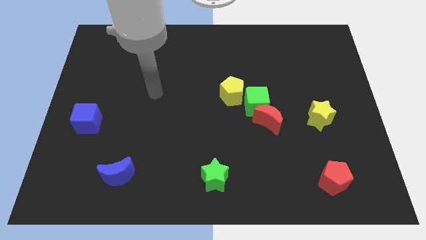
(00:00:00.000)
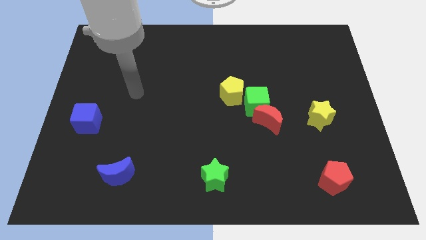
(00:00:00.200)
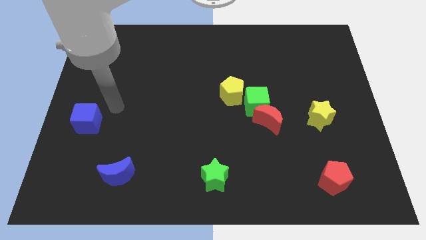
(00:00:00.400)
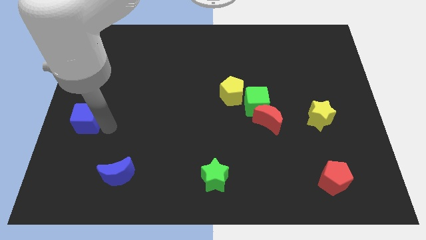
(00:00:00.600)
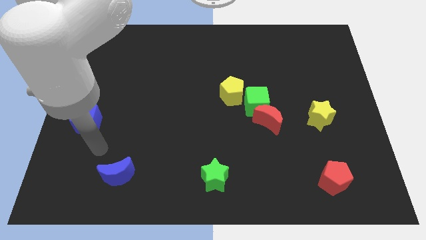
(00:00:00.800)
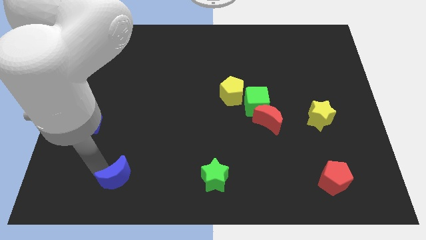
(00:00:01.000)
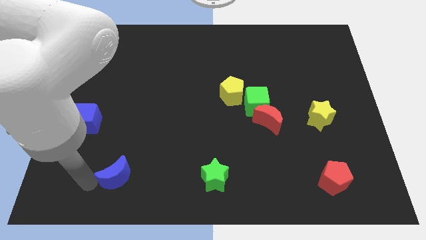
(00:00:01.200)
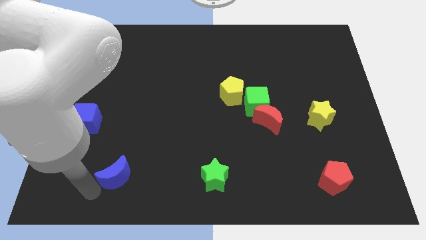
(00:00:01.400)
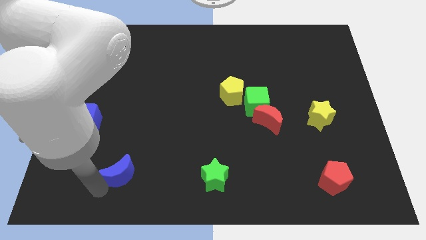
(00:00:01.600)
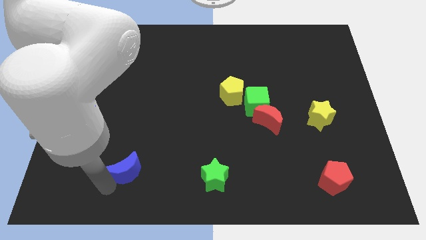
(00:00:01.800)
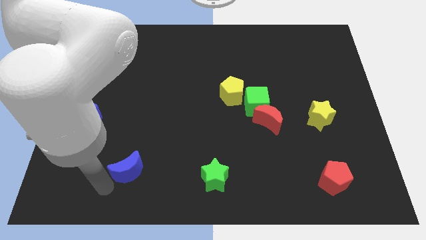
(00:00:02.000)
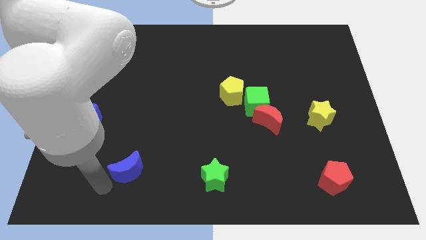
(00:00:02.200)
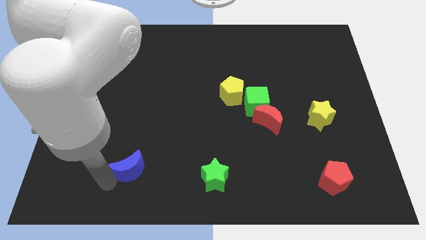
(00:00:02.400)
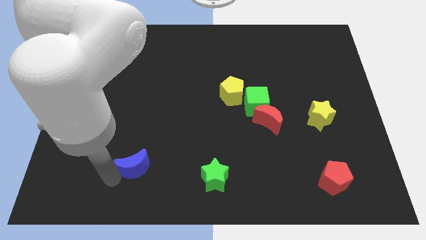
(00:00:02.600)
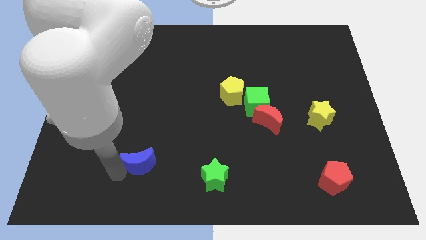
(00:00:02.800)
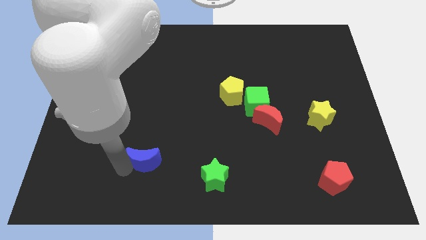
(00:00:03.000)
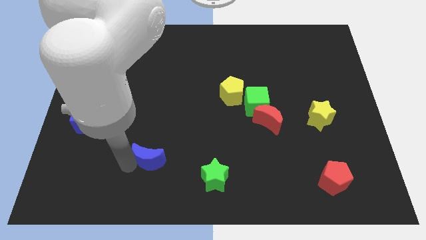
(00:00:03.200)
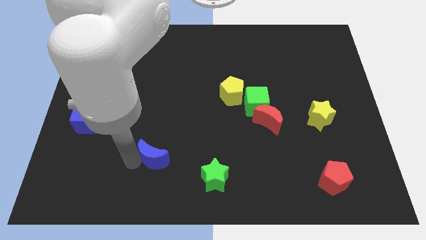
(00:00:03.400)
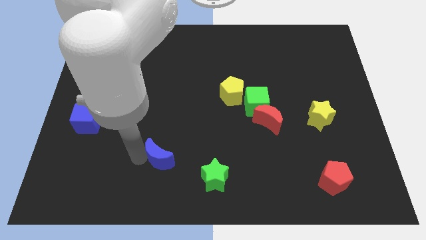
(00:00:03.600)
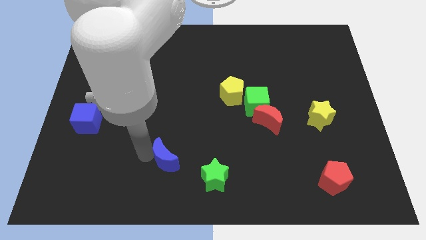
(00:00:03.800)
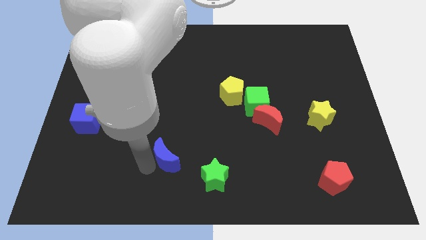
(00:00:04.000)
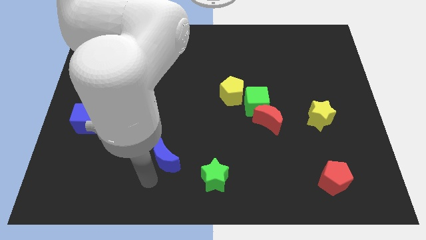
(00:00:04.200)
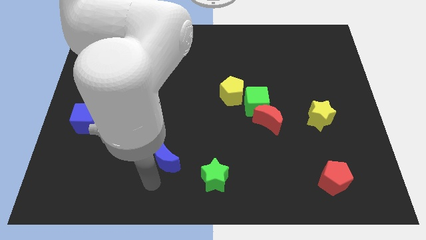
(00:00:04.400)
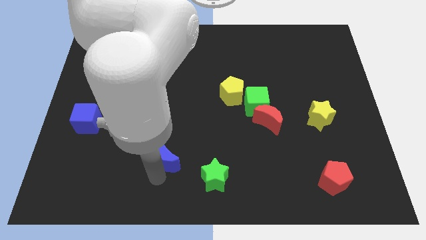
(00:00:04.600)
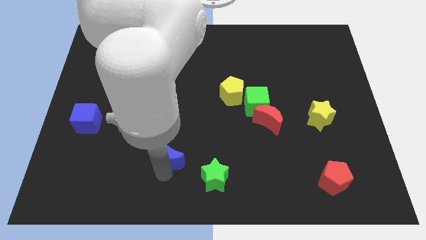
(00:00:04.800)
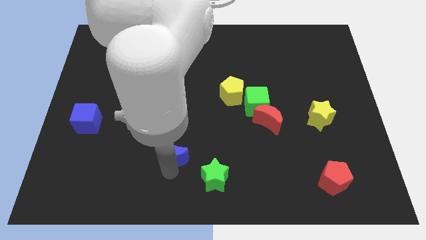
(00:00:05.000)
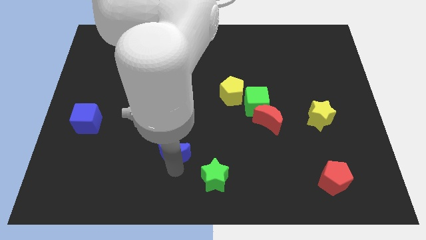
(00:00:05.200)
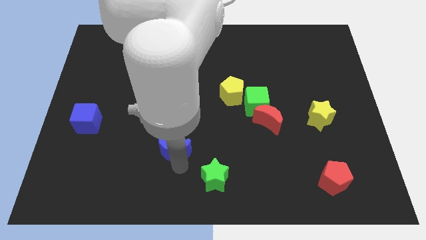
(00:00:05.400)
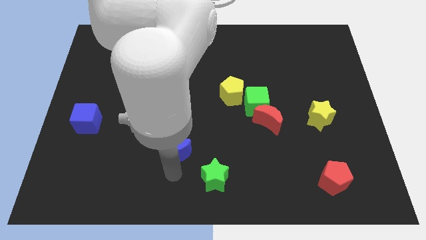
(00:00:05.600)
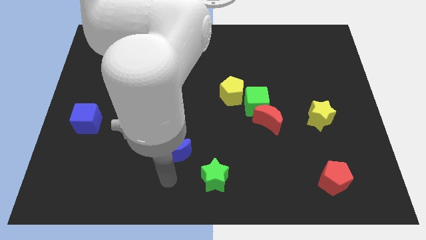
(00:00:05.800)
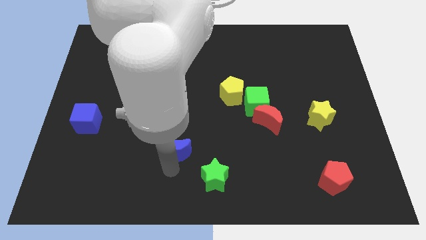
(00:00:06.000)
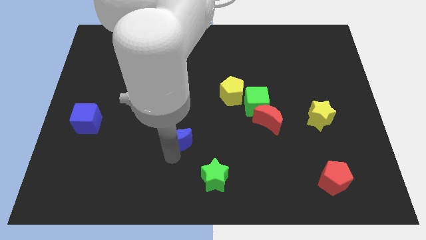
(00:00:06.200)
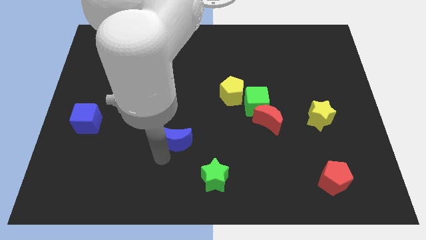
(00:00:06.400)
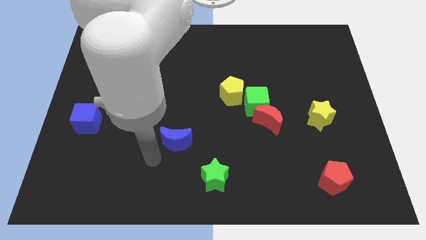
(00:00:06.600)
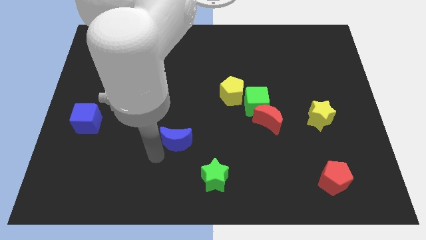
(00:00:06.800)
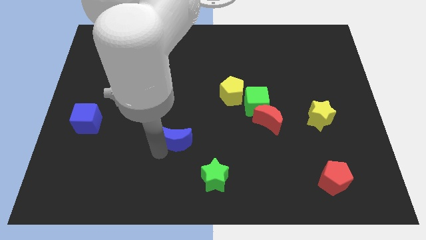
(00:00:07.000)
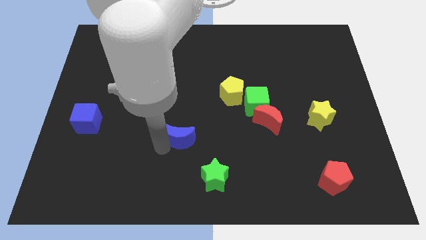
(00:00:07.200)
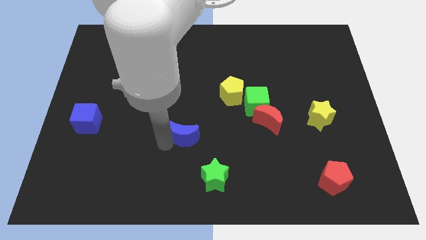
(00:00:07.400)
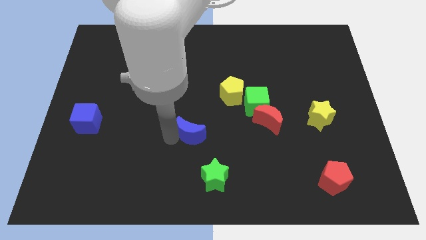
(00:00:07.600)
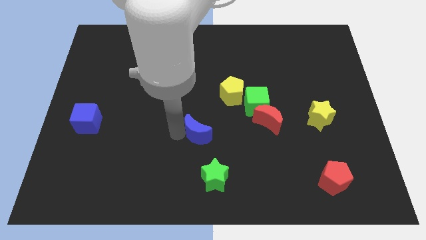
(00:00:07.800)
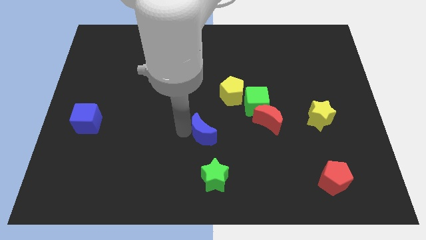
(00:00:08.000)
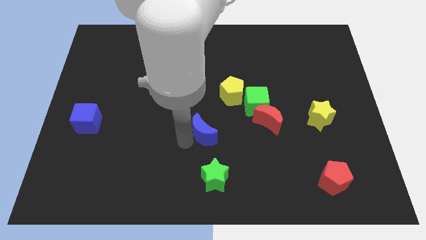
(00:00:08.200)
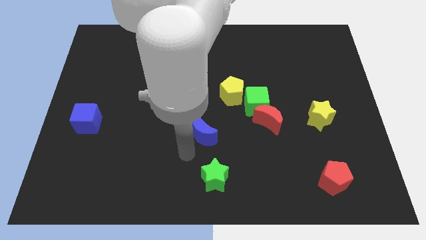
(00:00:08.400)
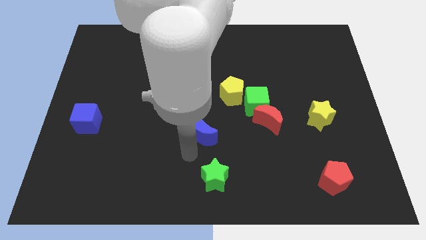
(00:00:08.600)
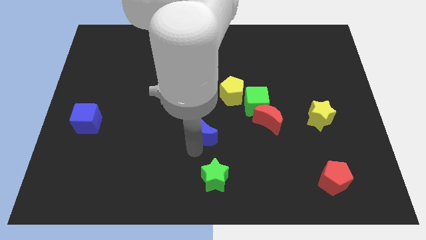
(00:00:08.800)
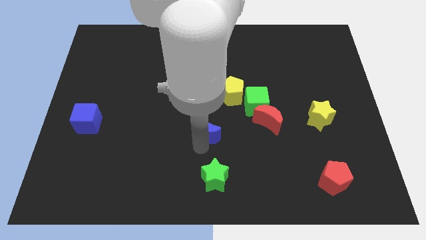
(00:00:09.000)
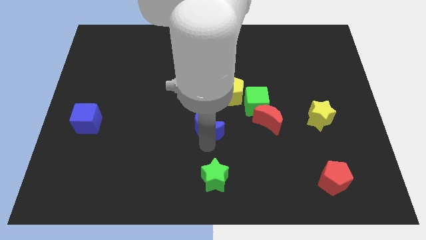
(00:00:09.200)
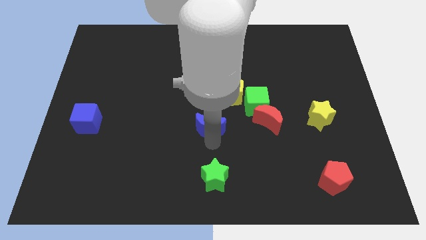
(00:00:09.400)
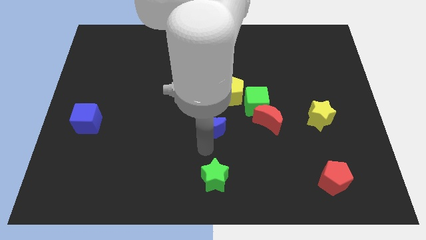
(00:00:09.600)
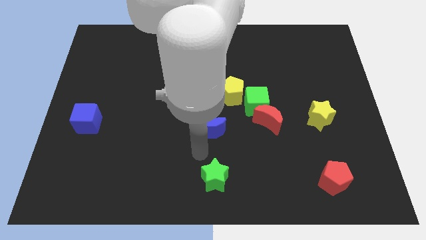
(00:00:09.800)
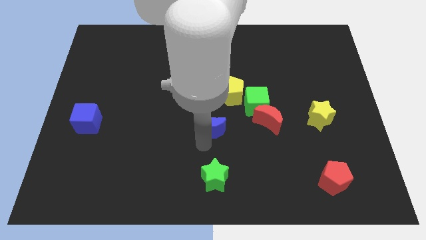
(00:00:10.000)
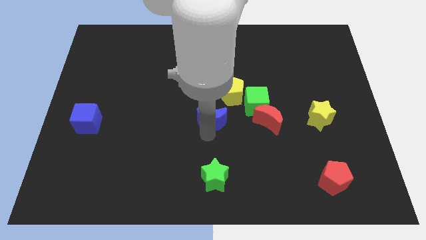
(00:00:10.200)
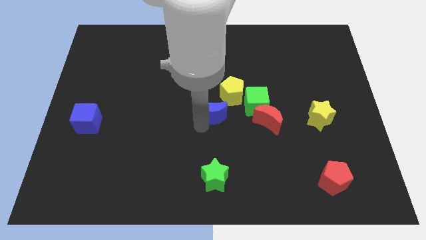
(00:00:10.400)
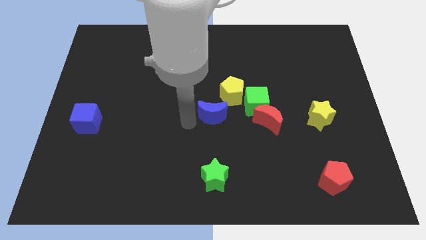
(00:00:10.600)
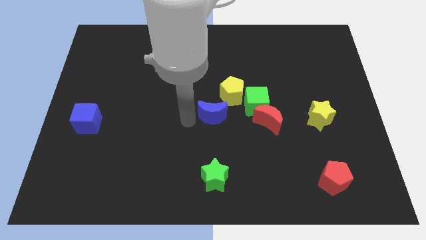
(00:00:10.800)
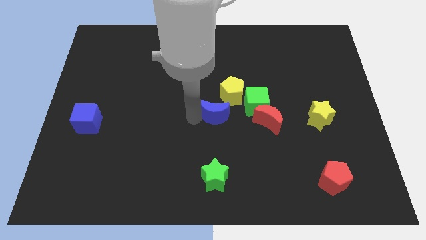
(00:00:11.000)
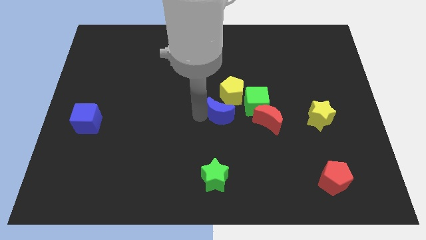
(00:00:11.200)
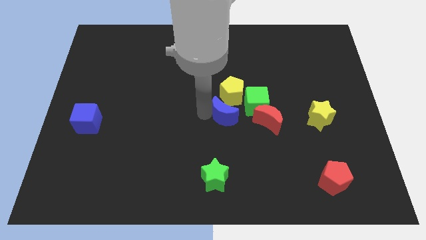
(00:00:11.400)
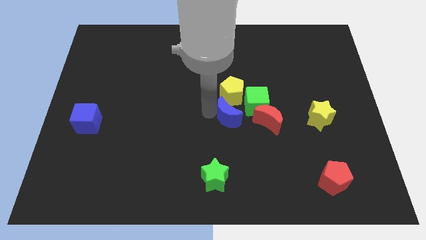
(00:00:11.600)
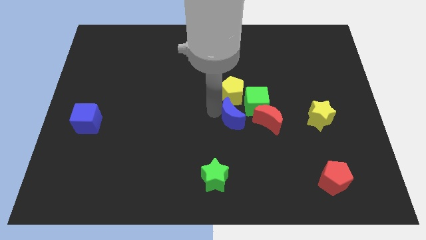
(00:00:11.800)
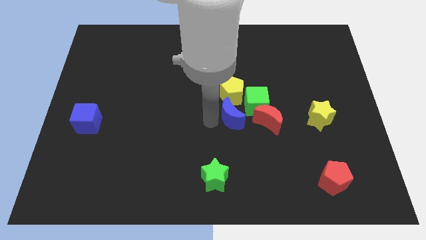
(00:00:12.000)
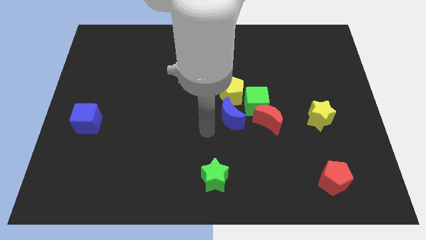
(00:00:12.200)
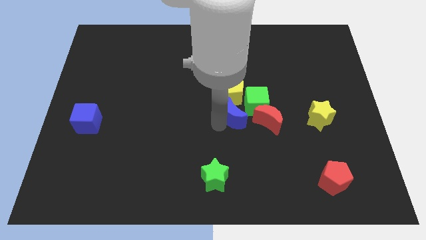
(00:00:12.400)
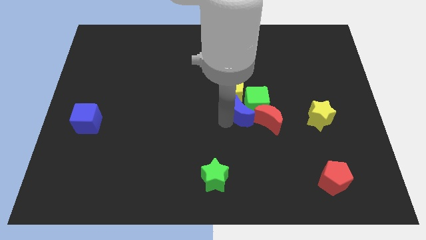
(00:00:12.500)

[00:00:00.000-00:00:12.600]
put the blue moon towards the green cube
